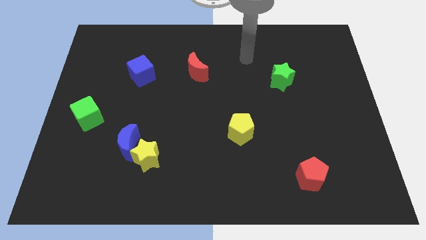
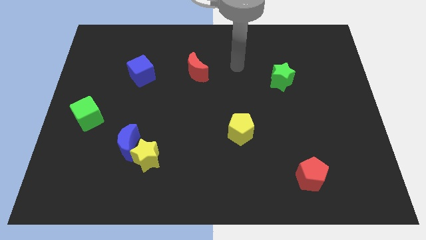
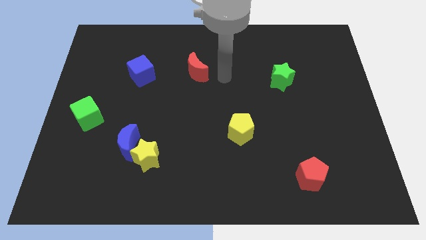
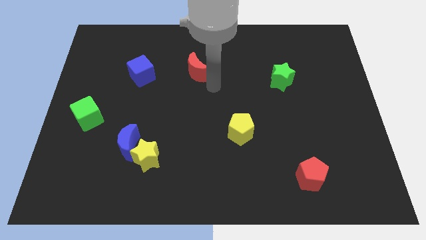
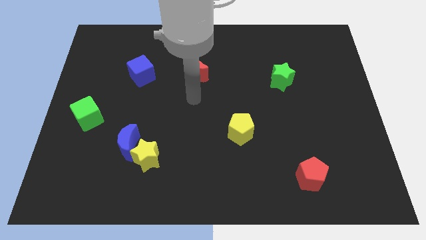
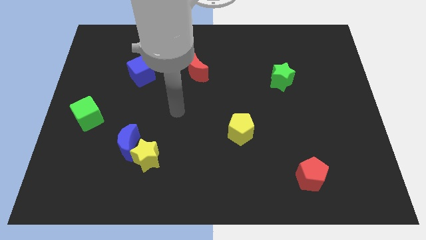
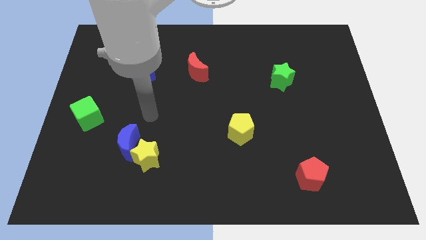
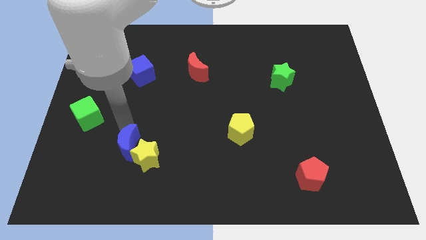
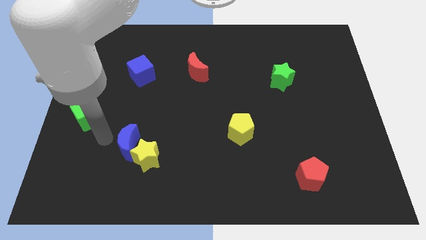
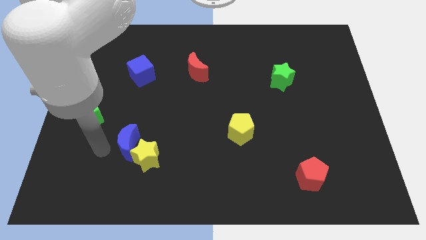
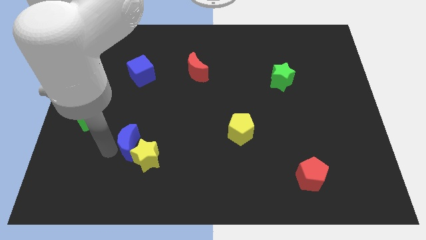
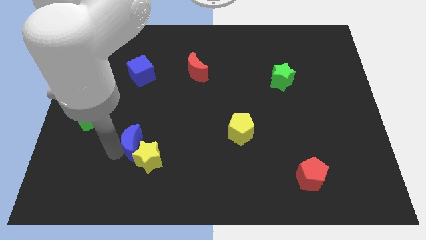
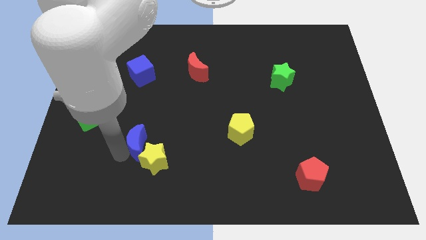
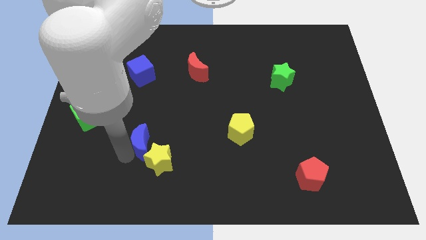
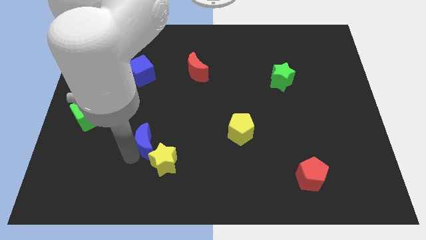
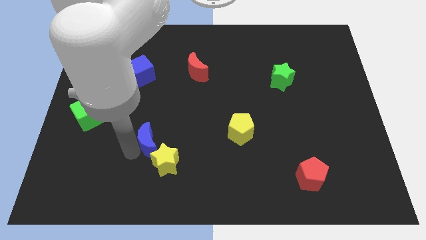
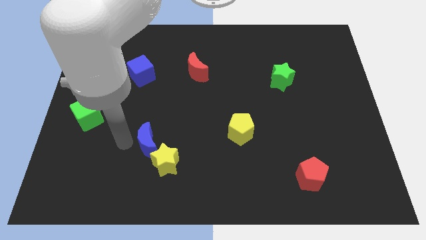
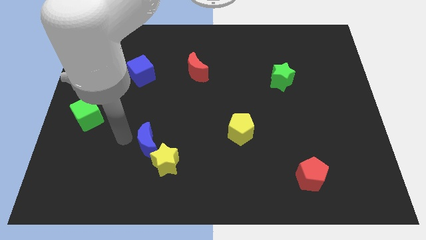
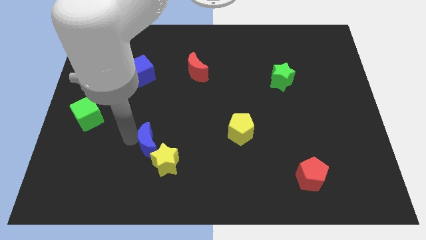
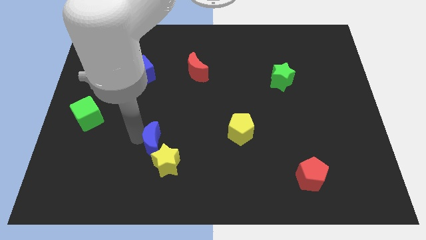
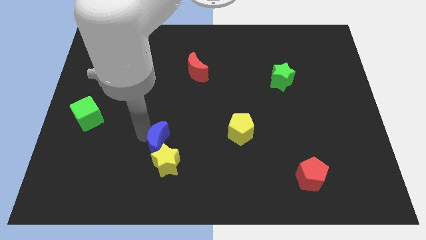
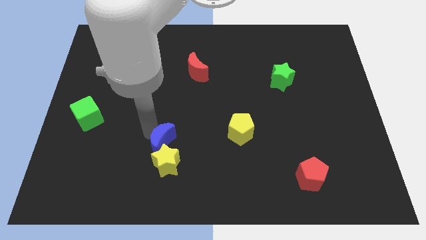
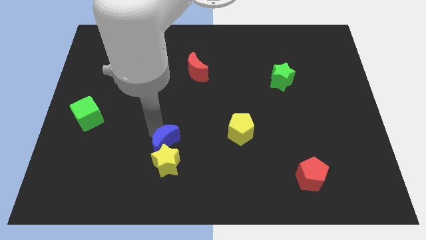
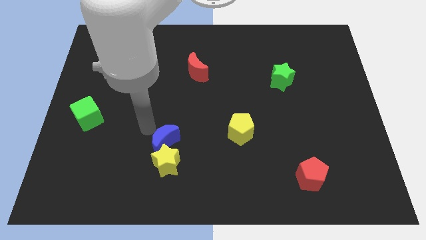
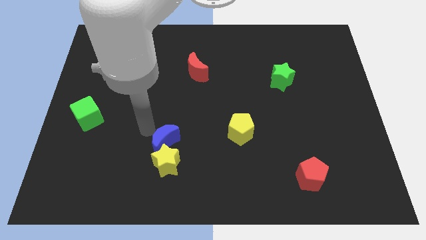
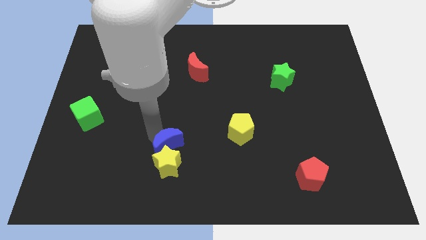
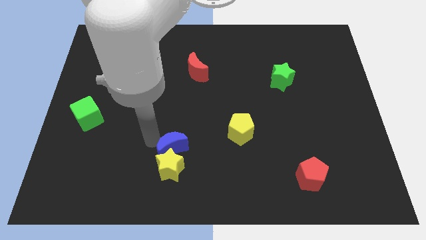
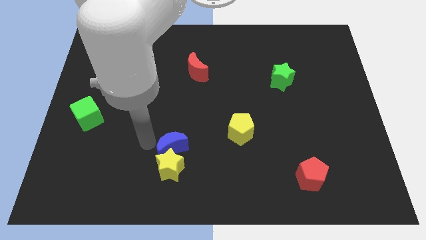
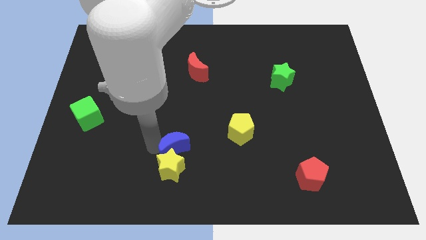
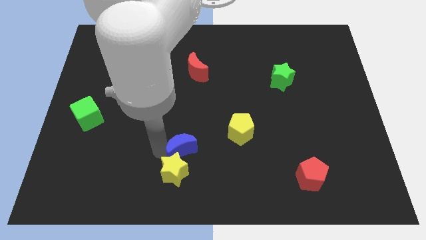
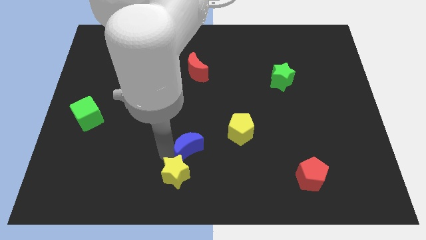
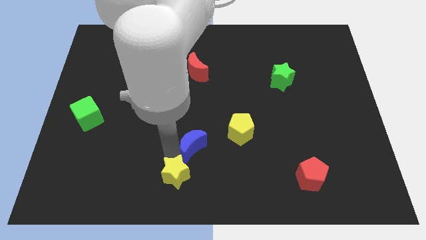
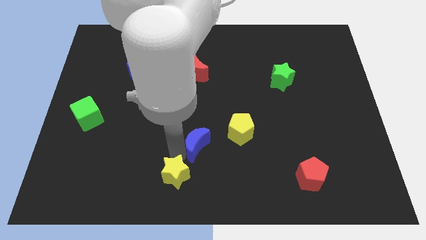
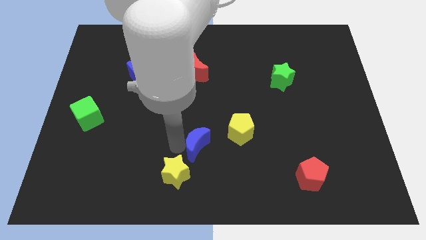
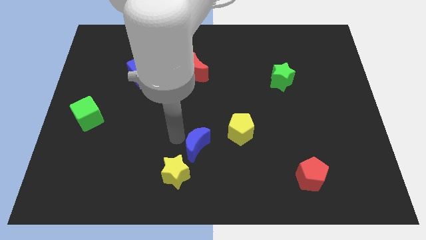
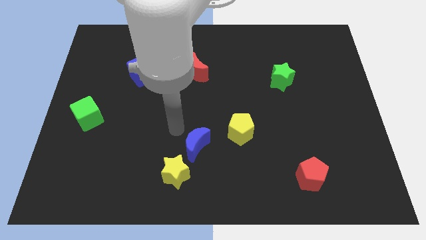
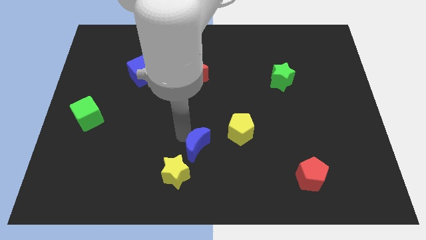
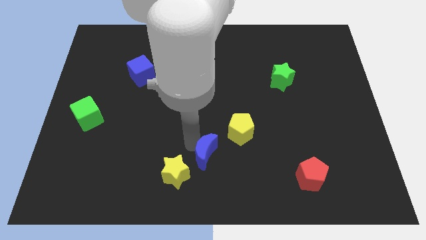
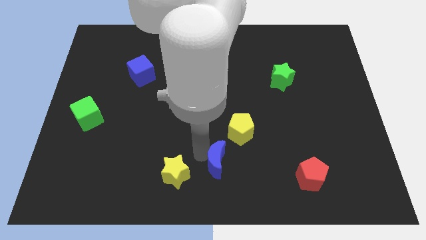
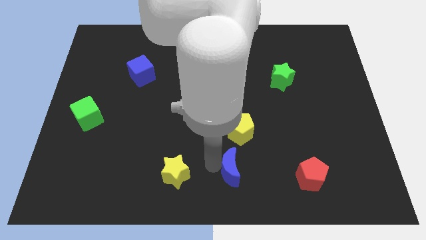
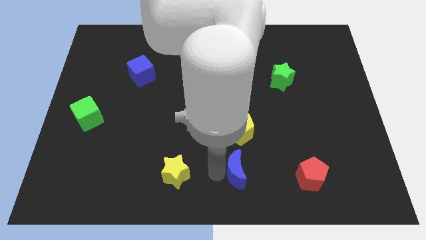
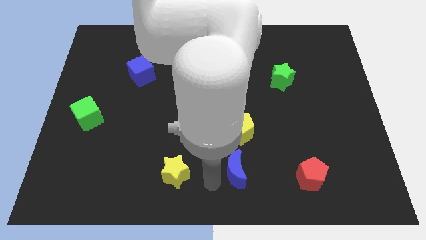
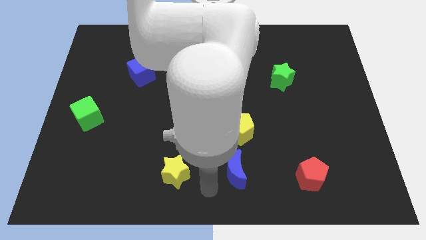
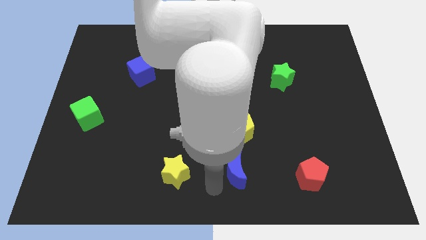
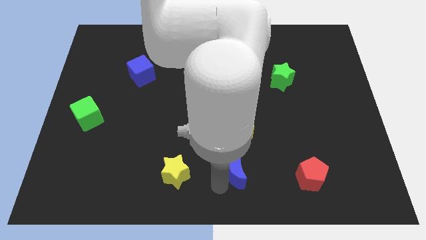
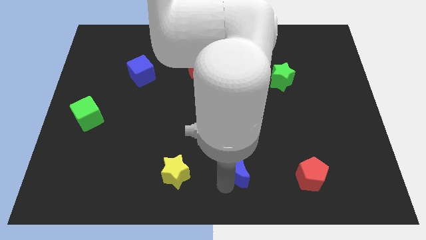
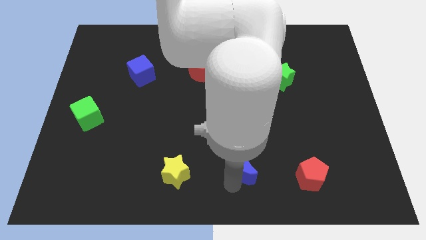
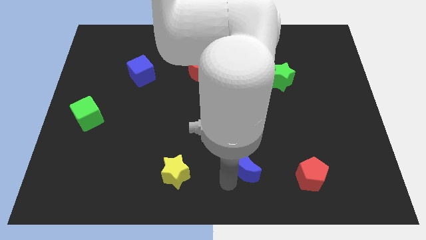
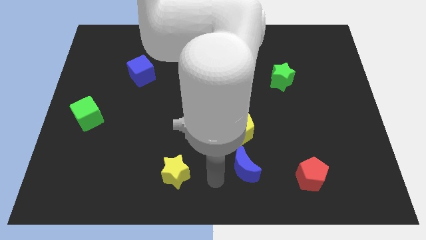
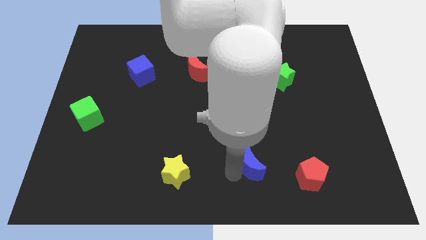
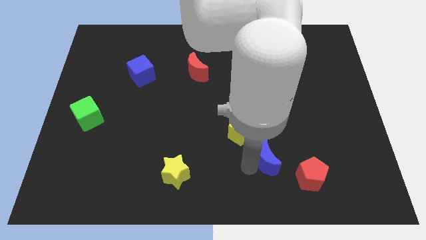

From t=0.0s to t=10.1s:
slide the blue moon to the top left of the red pentagon

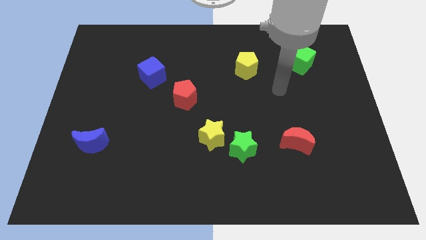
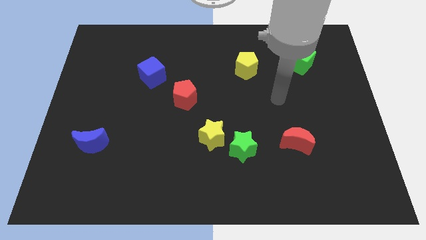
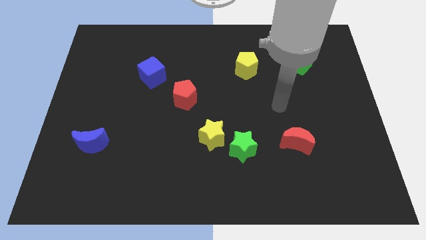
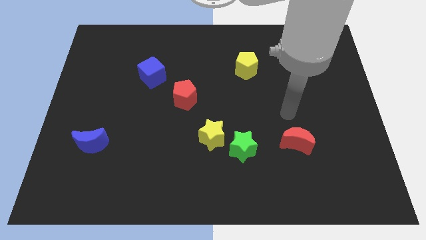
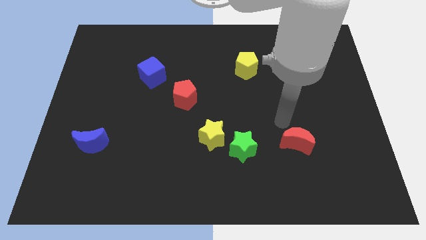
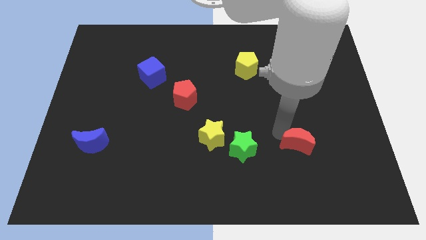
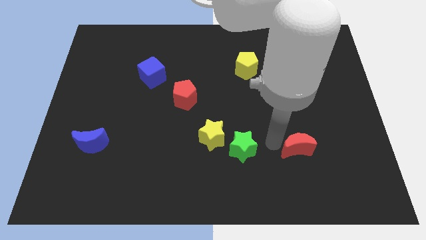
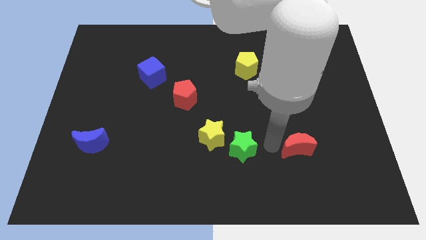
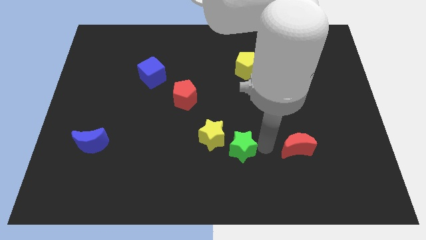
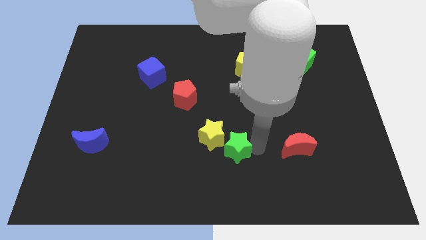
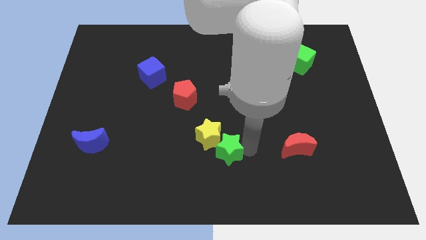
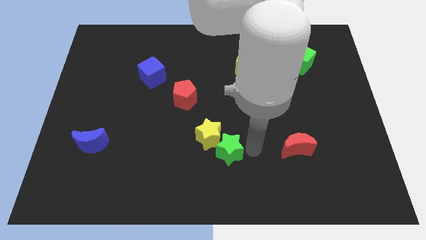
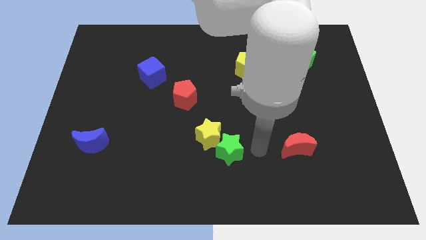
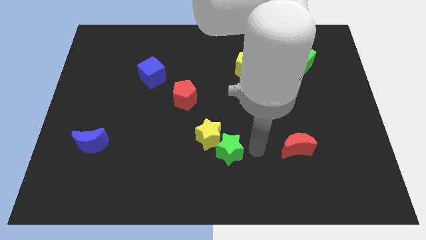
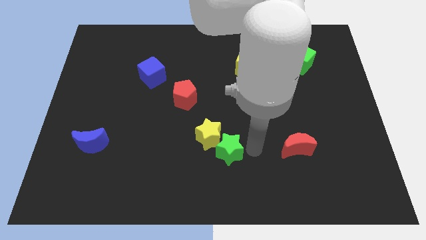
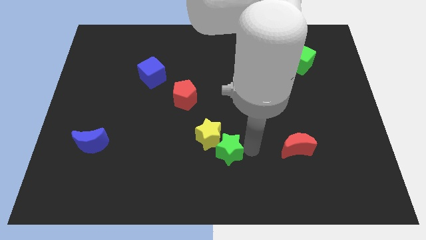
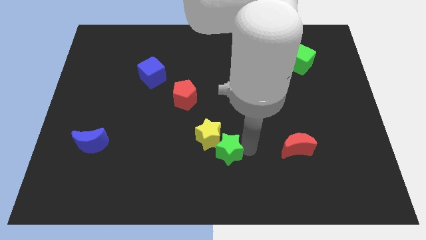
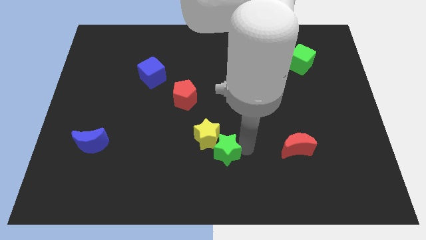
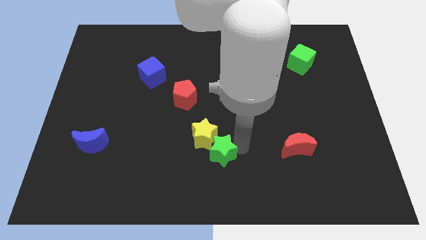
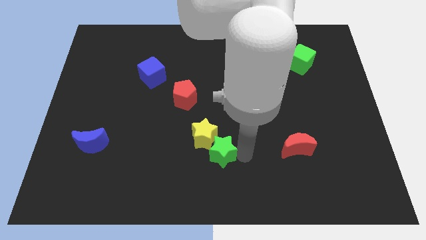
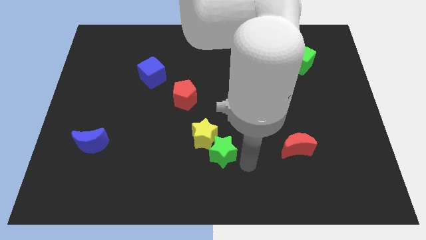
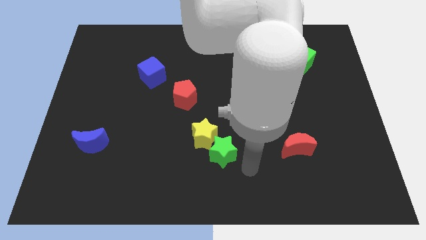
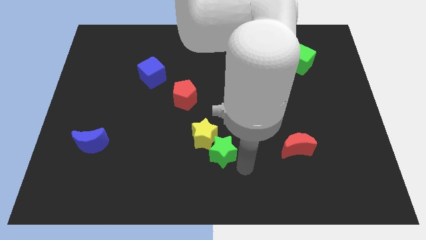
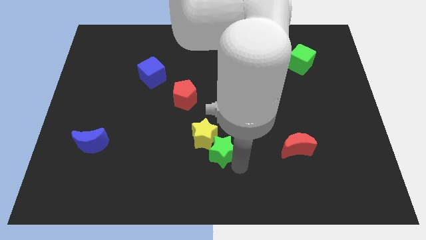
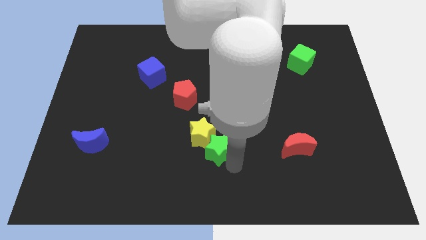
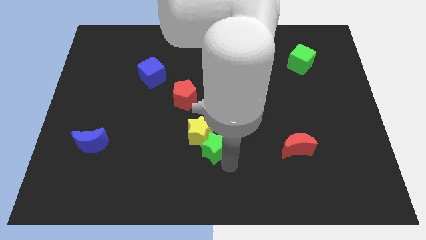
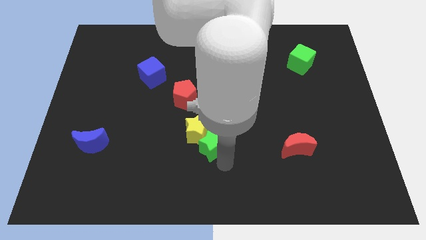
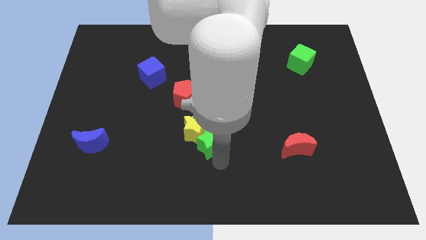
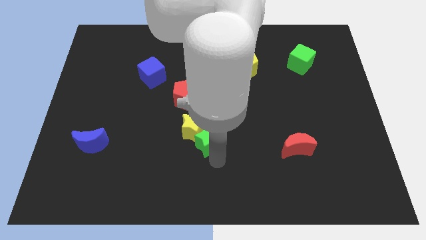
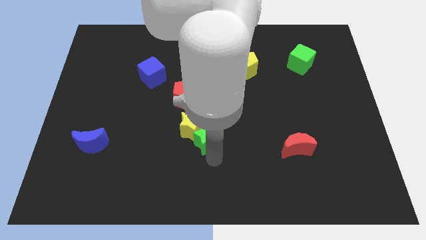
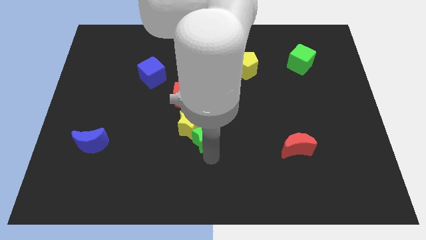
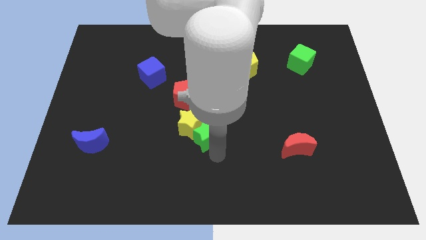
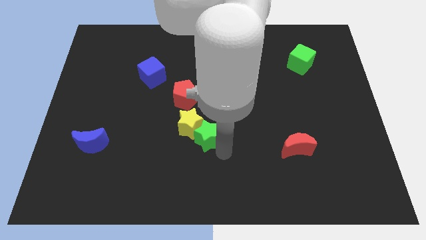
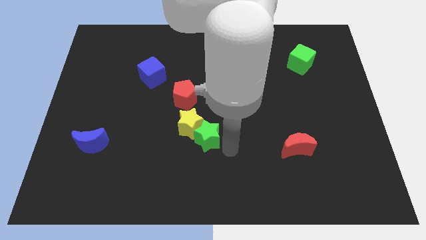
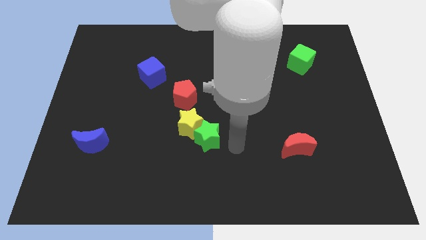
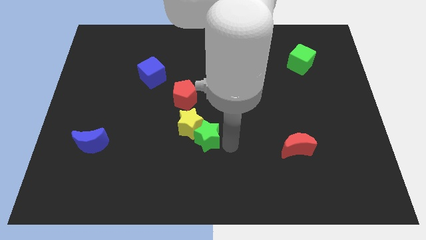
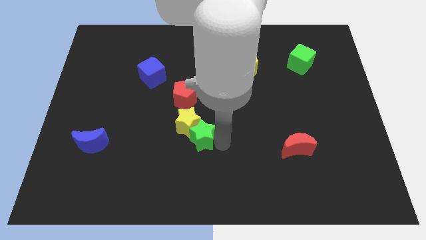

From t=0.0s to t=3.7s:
put the green star to the bottom side of the red pentagon
